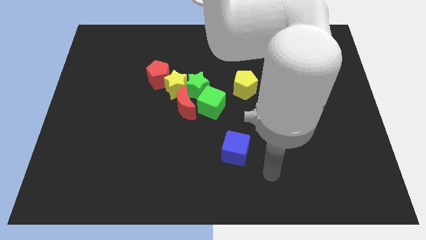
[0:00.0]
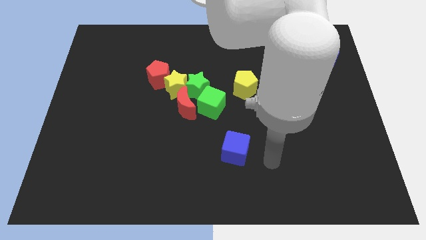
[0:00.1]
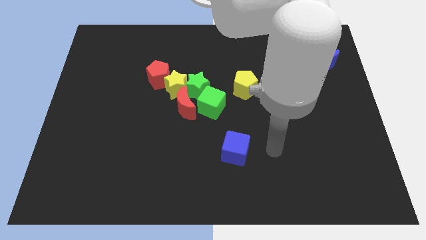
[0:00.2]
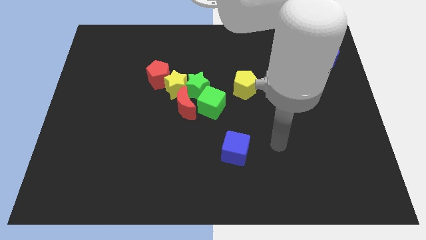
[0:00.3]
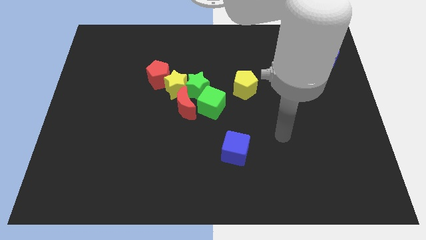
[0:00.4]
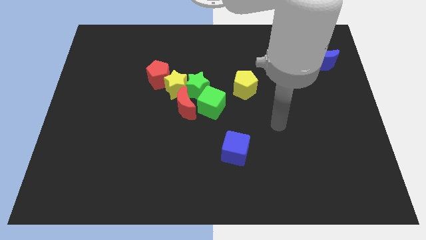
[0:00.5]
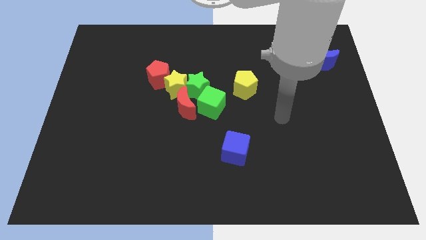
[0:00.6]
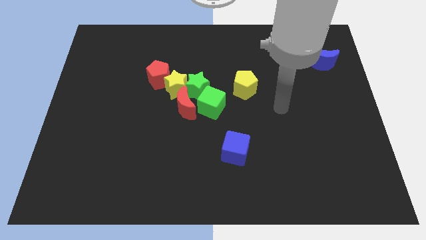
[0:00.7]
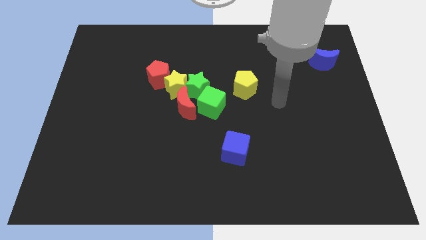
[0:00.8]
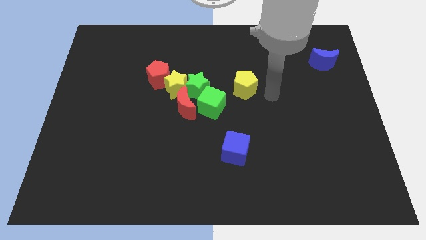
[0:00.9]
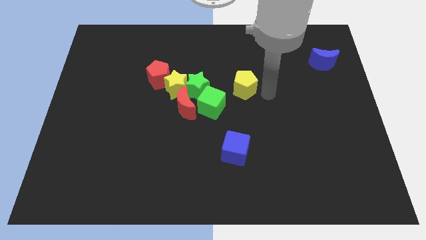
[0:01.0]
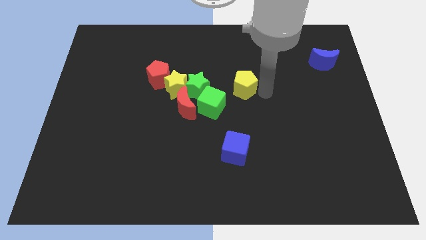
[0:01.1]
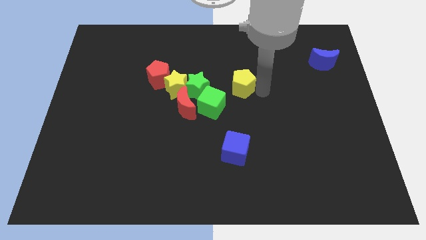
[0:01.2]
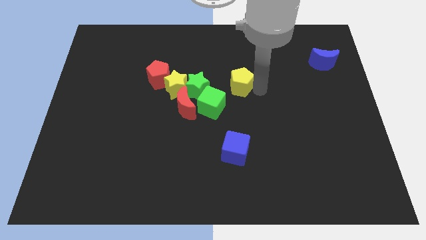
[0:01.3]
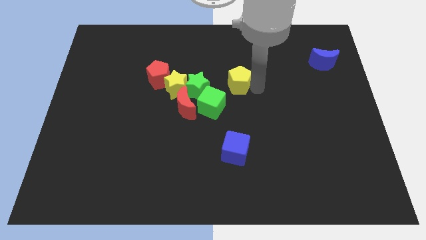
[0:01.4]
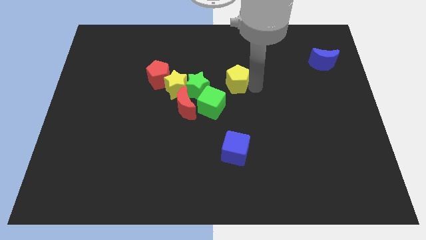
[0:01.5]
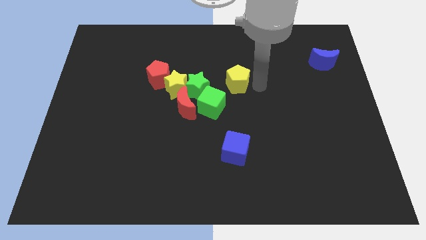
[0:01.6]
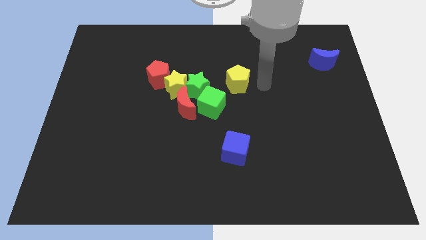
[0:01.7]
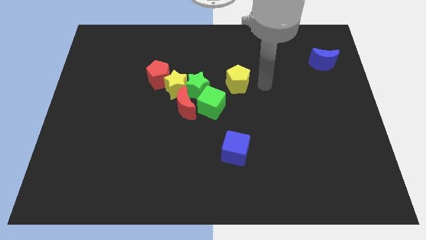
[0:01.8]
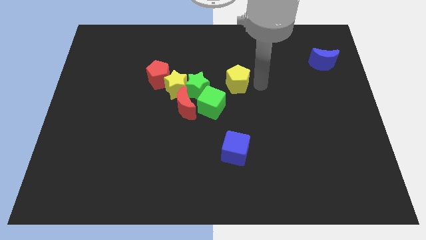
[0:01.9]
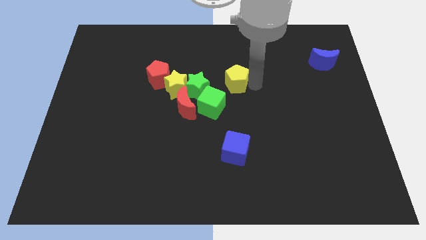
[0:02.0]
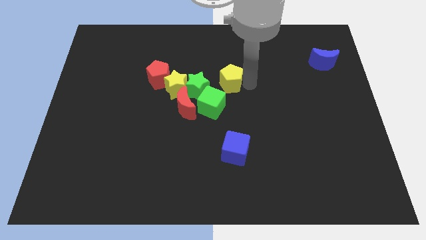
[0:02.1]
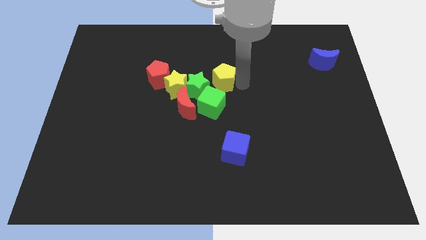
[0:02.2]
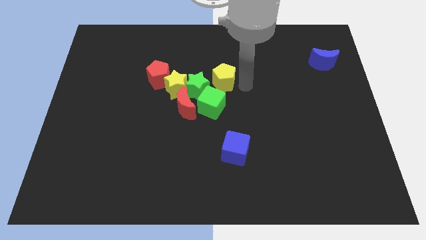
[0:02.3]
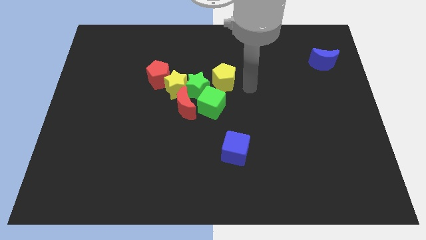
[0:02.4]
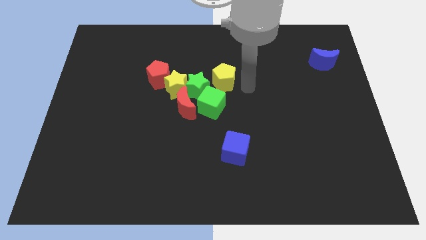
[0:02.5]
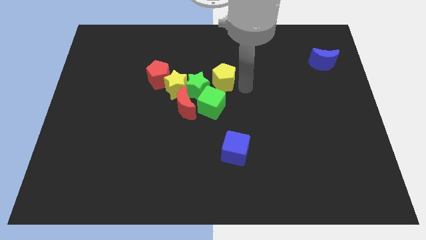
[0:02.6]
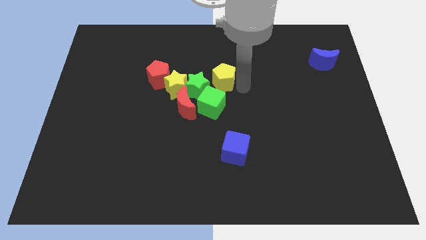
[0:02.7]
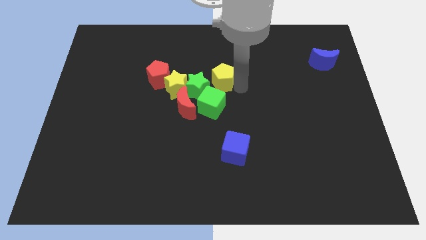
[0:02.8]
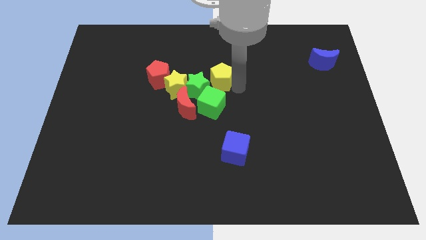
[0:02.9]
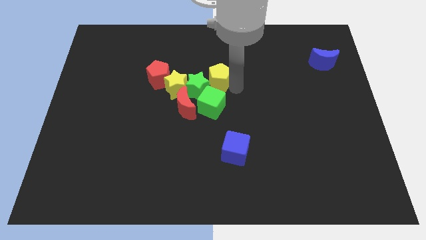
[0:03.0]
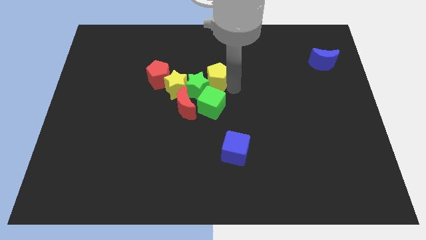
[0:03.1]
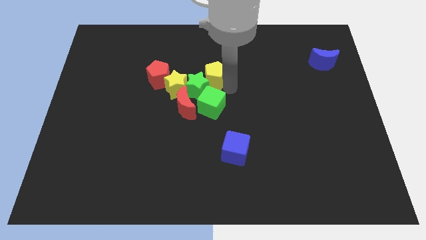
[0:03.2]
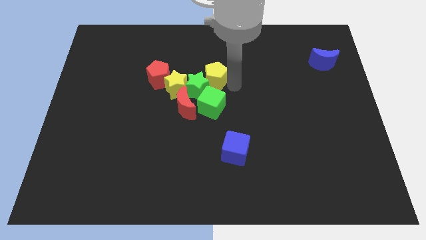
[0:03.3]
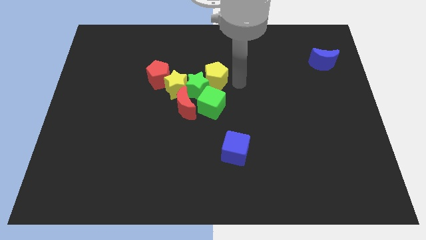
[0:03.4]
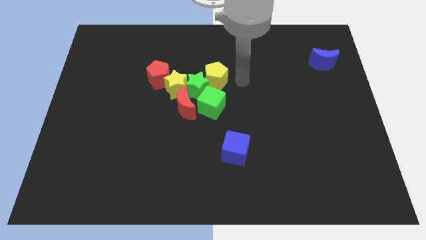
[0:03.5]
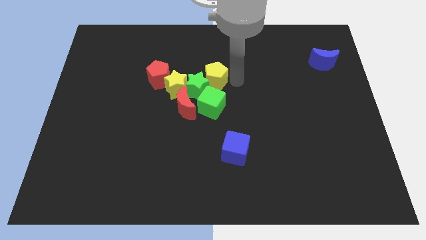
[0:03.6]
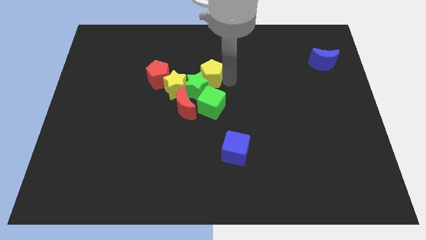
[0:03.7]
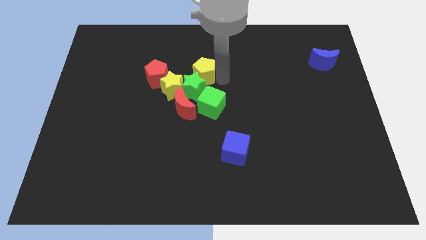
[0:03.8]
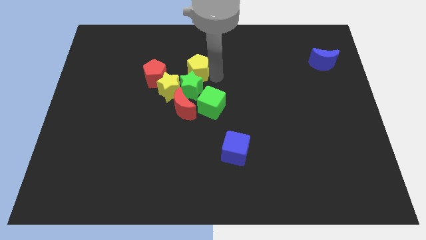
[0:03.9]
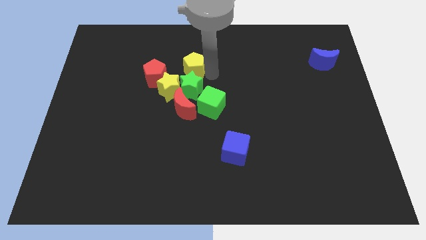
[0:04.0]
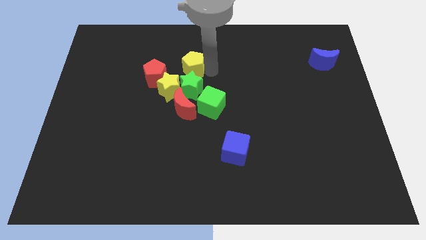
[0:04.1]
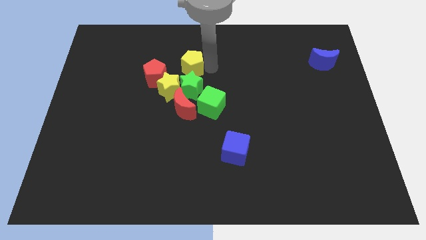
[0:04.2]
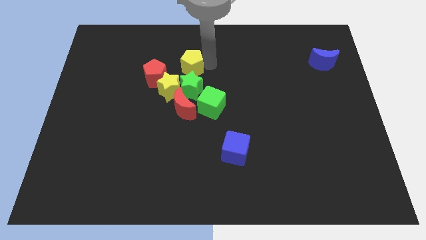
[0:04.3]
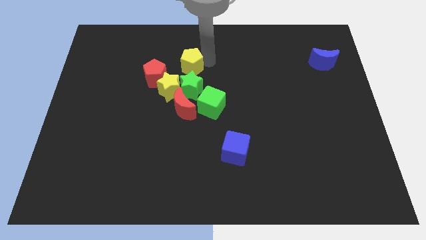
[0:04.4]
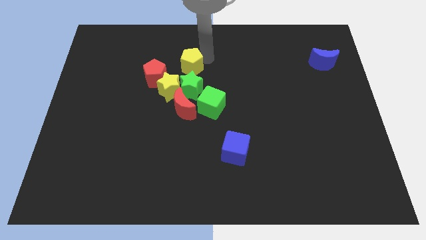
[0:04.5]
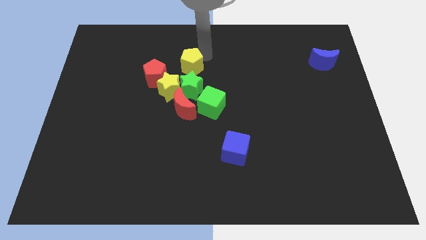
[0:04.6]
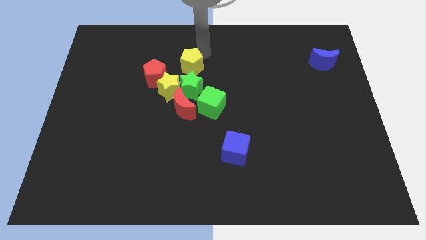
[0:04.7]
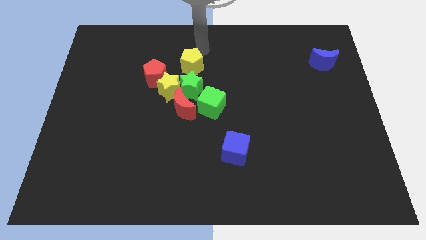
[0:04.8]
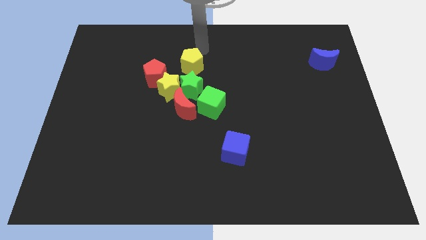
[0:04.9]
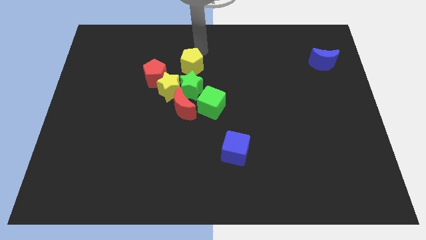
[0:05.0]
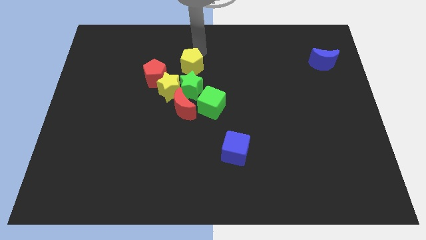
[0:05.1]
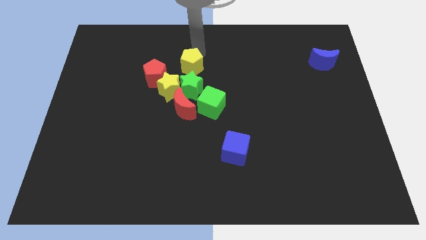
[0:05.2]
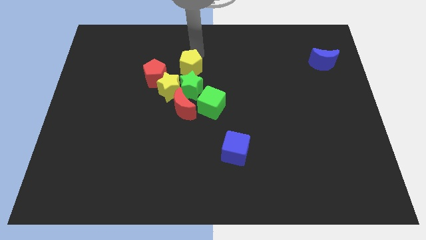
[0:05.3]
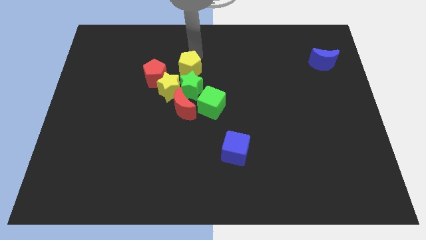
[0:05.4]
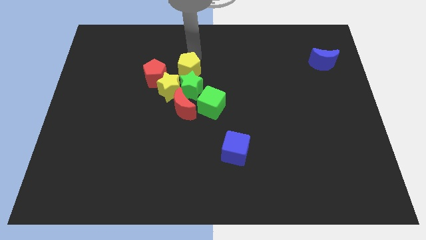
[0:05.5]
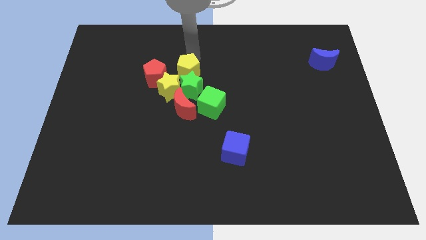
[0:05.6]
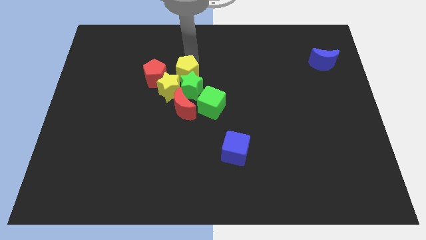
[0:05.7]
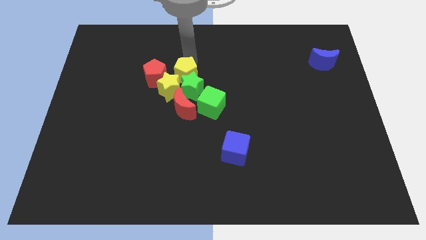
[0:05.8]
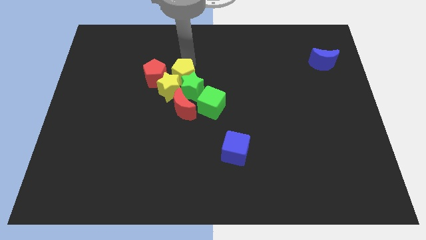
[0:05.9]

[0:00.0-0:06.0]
push the yellow pentagon next to the yellow star
